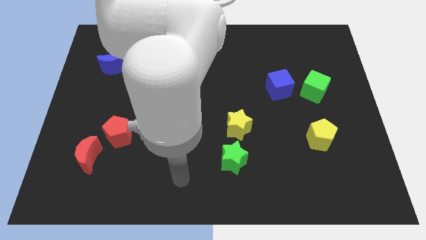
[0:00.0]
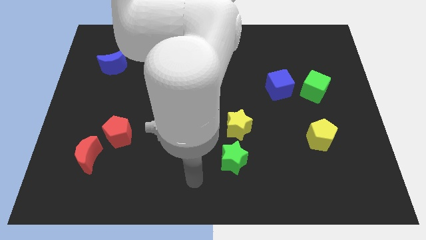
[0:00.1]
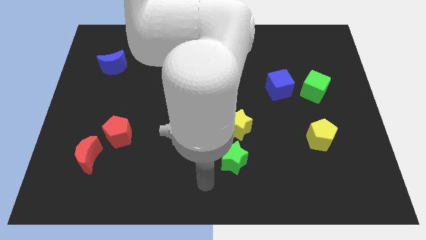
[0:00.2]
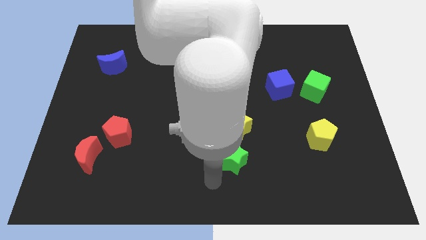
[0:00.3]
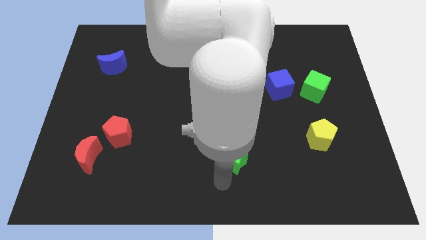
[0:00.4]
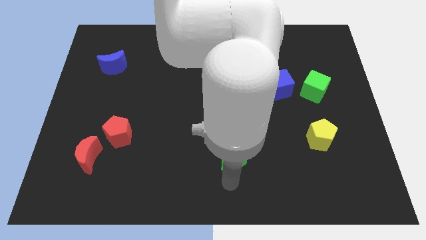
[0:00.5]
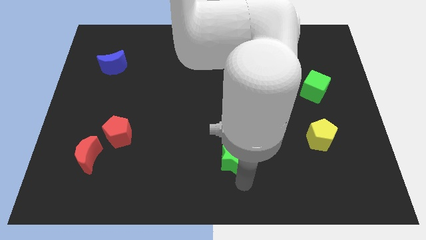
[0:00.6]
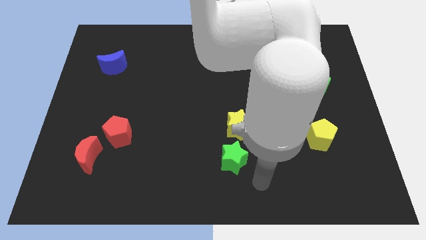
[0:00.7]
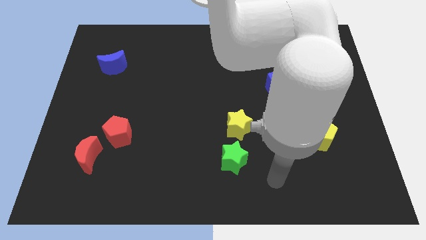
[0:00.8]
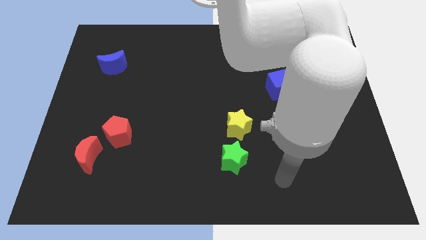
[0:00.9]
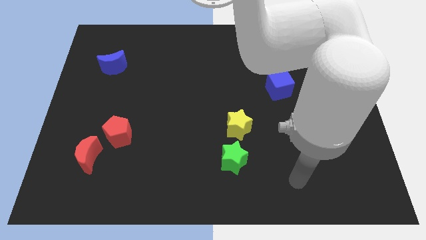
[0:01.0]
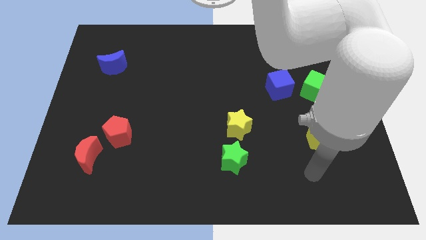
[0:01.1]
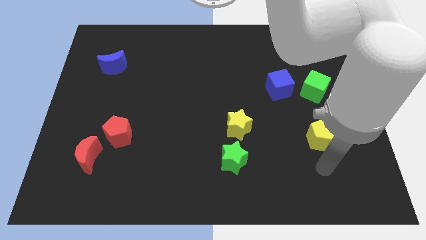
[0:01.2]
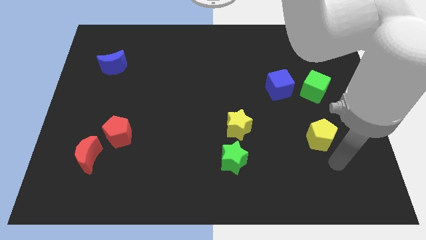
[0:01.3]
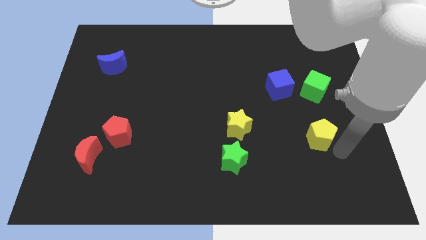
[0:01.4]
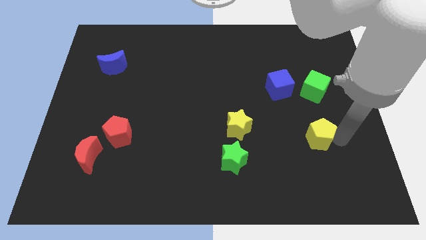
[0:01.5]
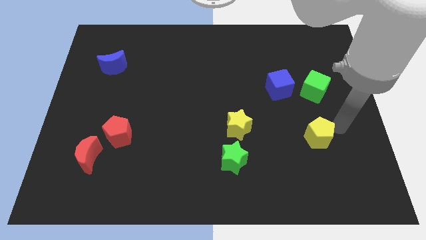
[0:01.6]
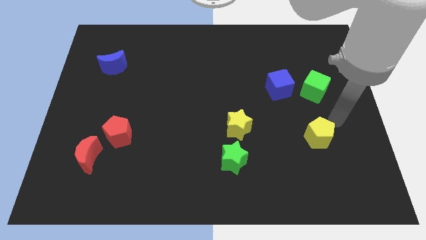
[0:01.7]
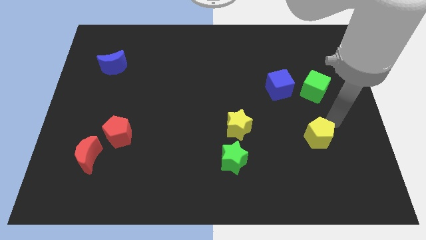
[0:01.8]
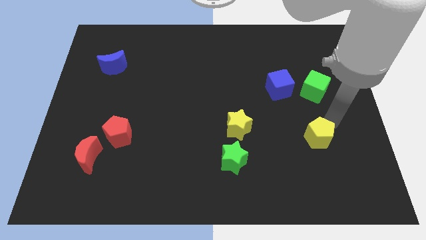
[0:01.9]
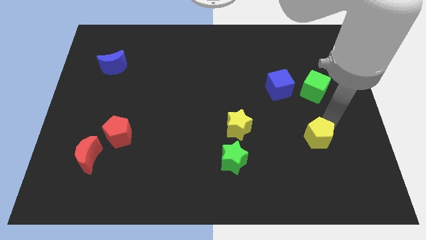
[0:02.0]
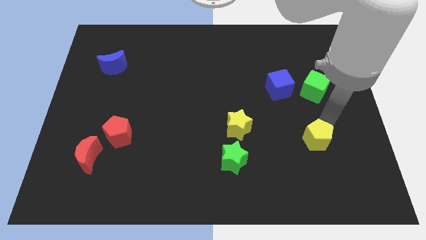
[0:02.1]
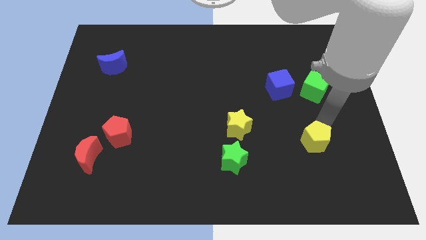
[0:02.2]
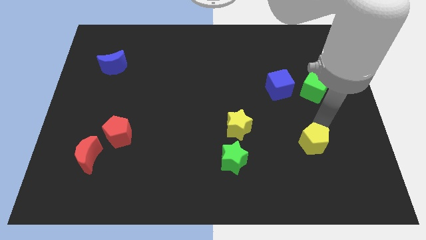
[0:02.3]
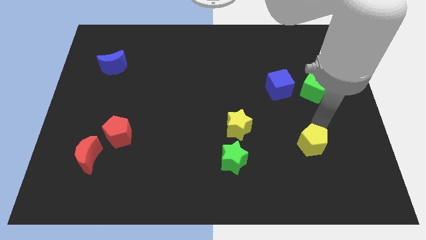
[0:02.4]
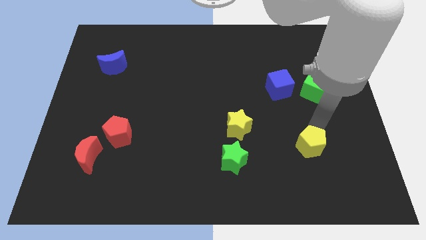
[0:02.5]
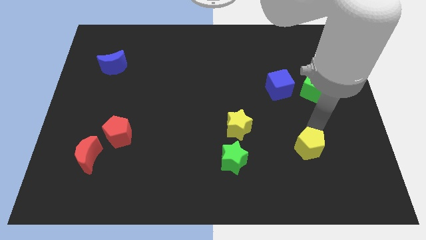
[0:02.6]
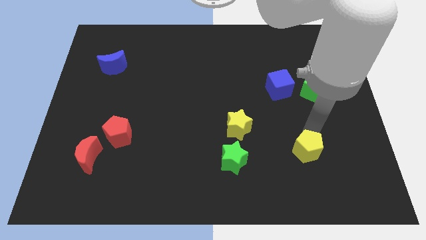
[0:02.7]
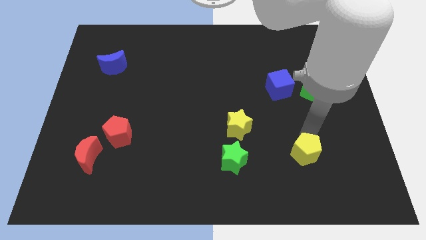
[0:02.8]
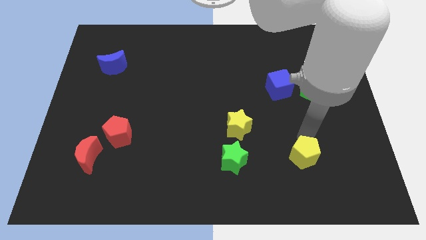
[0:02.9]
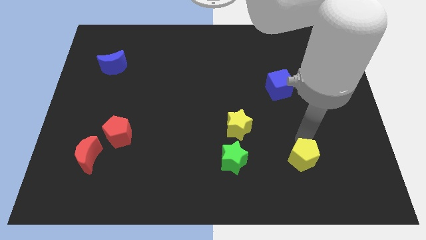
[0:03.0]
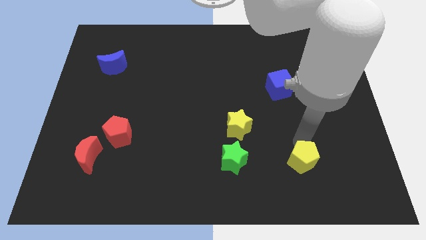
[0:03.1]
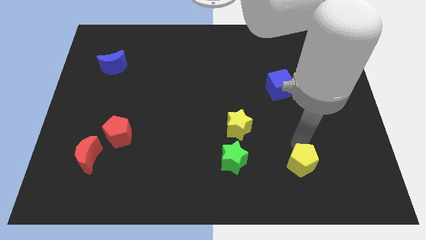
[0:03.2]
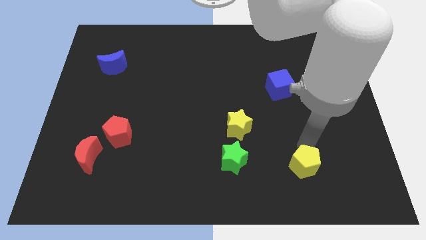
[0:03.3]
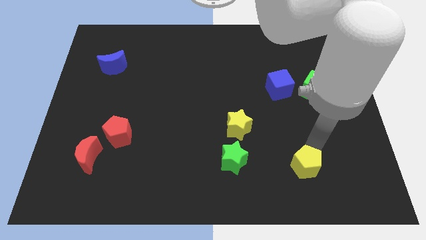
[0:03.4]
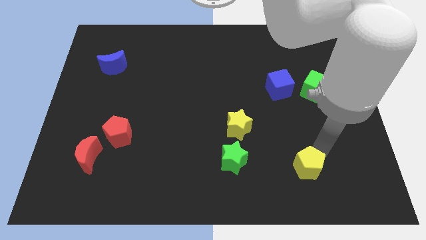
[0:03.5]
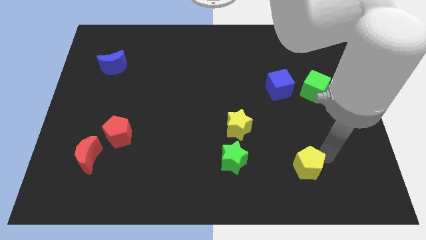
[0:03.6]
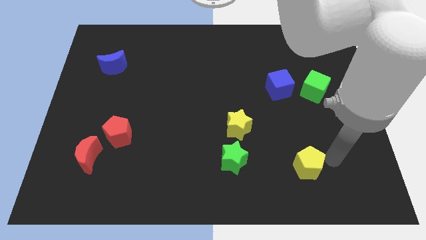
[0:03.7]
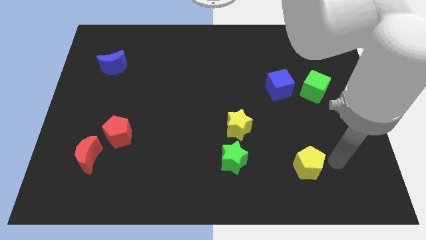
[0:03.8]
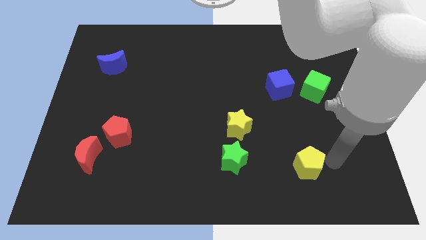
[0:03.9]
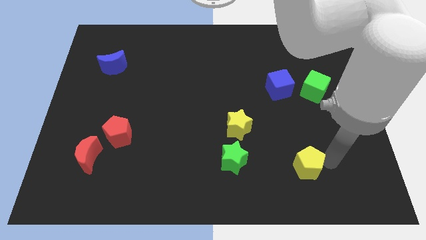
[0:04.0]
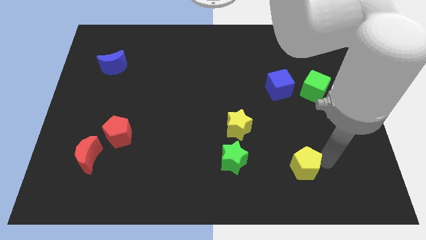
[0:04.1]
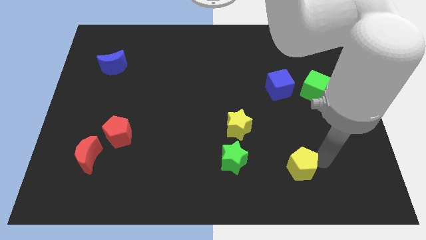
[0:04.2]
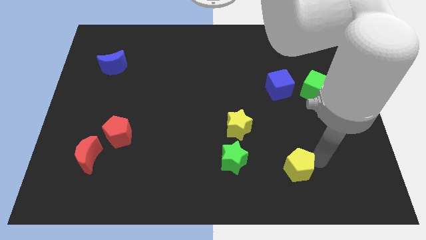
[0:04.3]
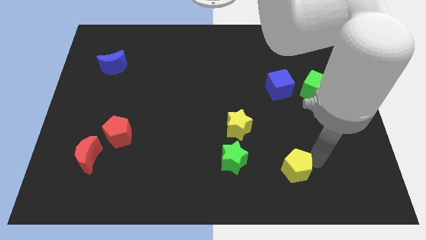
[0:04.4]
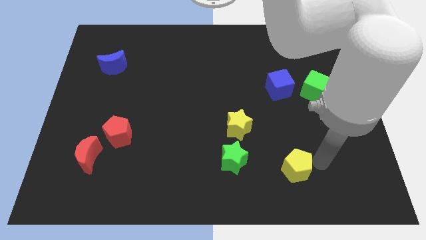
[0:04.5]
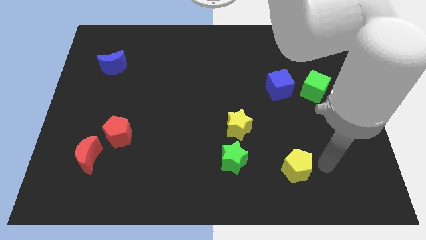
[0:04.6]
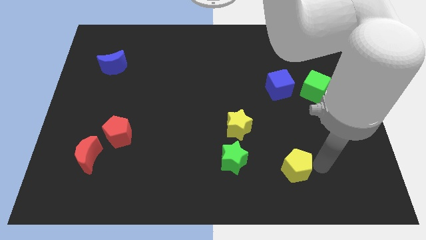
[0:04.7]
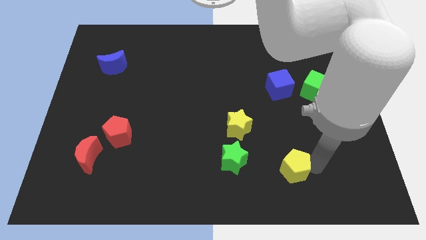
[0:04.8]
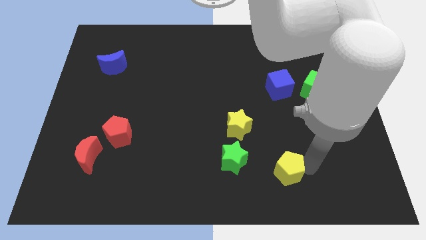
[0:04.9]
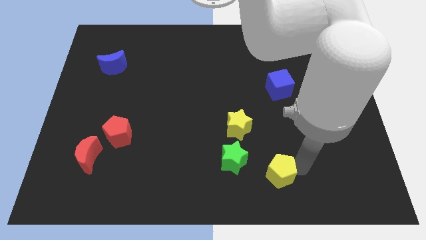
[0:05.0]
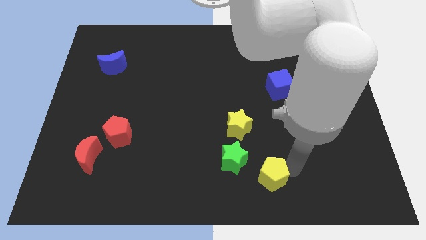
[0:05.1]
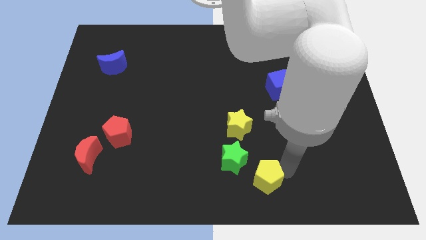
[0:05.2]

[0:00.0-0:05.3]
push the yellow pentagon to the bottom

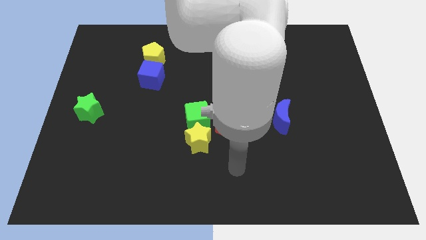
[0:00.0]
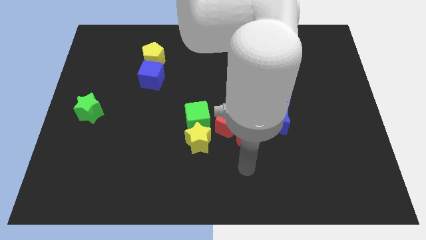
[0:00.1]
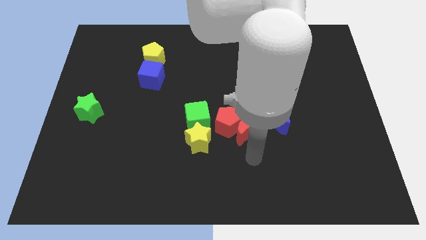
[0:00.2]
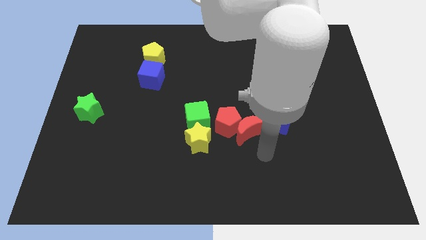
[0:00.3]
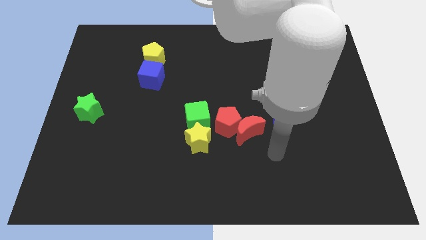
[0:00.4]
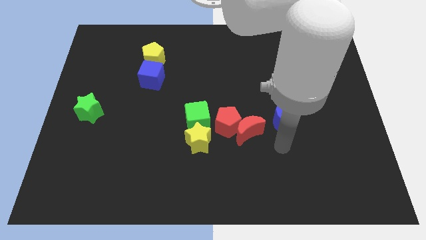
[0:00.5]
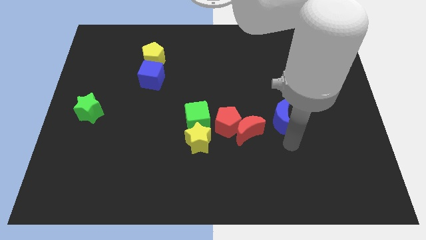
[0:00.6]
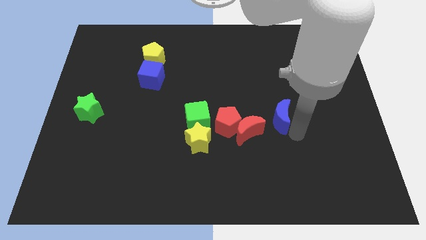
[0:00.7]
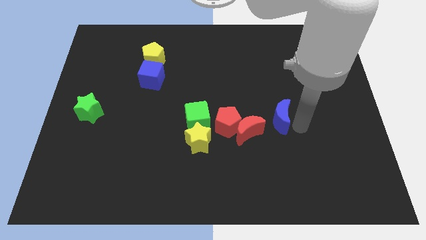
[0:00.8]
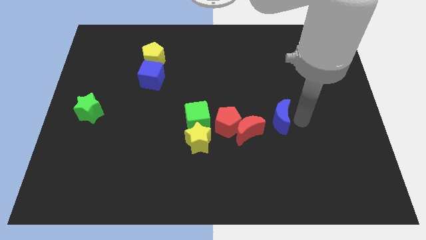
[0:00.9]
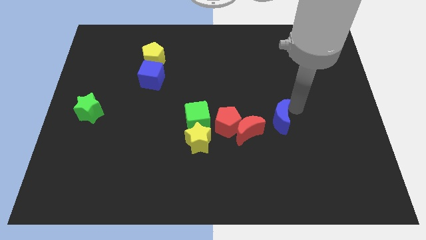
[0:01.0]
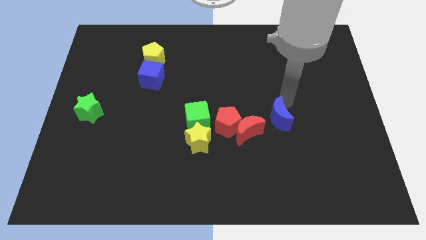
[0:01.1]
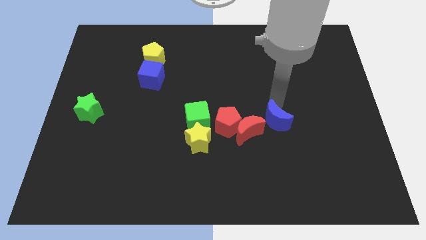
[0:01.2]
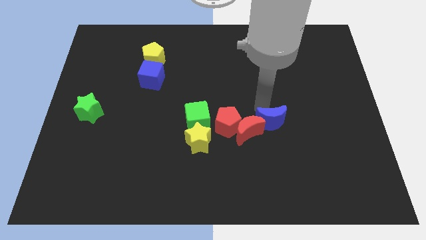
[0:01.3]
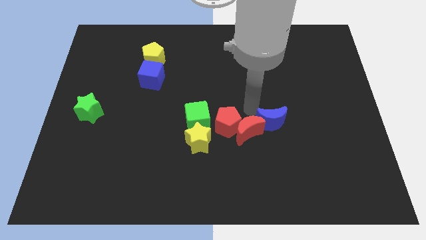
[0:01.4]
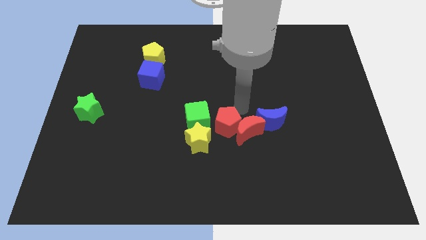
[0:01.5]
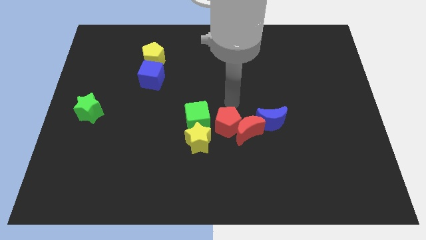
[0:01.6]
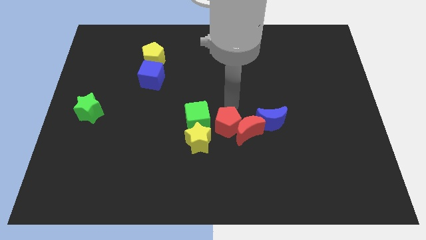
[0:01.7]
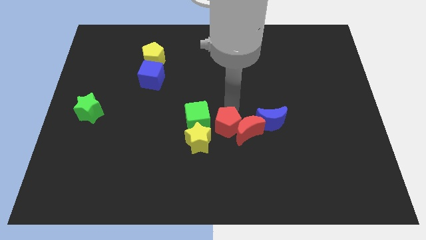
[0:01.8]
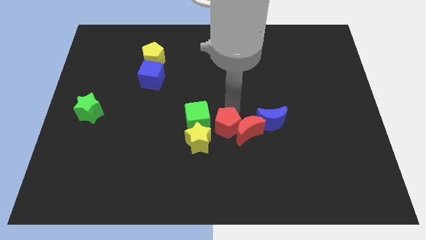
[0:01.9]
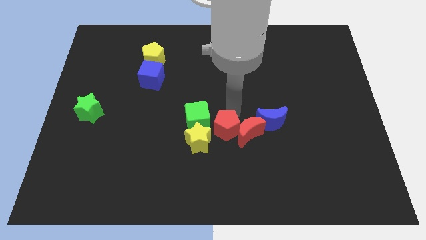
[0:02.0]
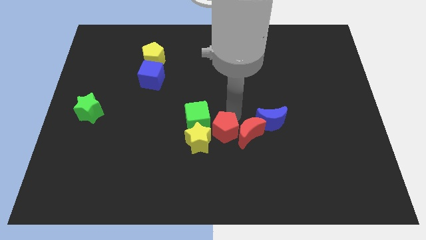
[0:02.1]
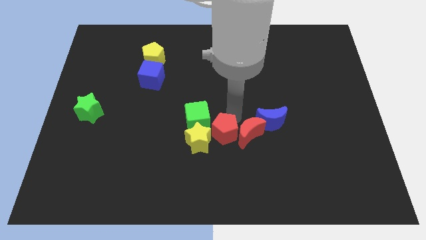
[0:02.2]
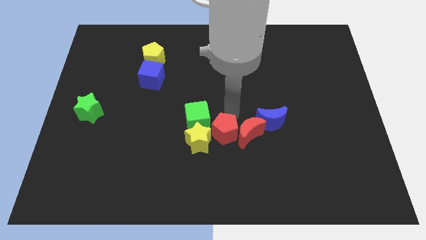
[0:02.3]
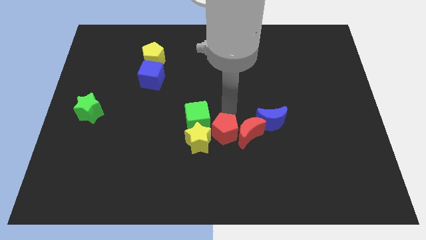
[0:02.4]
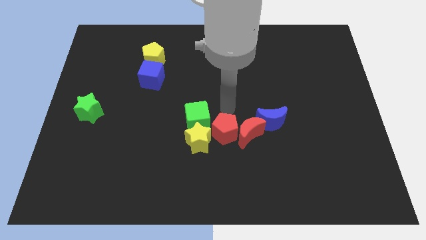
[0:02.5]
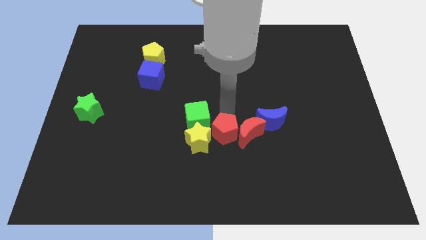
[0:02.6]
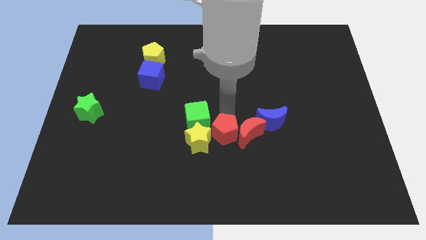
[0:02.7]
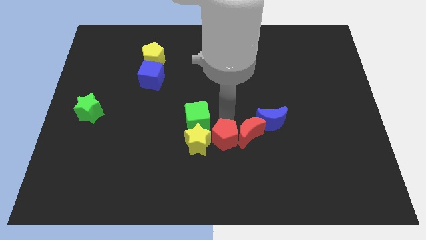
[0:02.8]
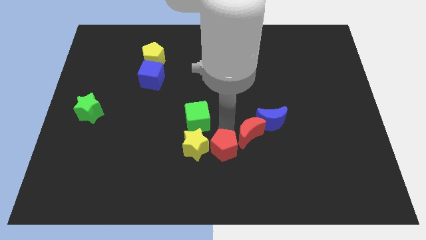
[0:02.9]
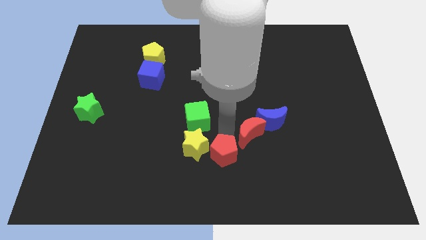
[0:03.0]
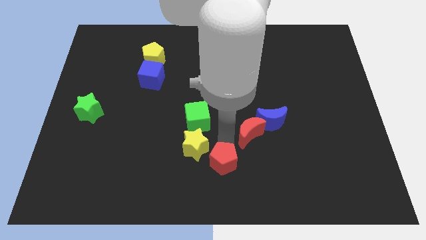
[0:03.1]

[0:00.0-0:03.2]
put the red pentagon to the bottom
